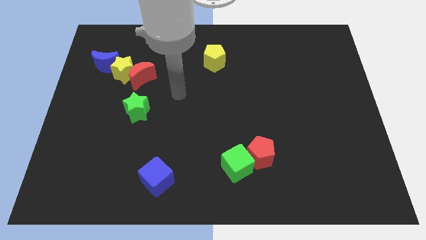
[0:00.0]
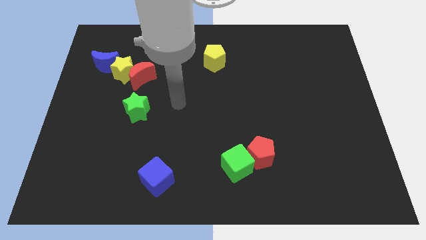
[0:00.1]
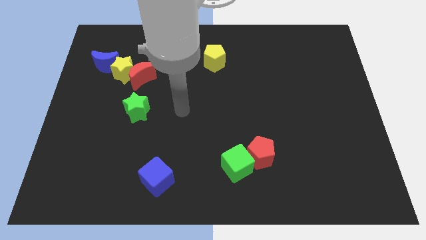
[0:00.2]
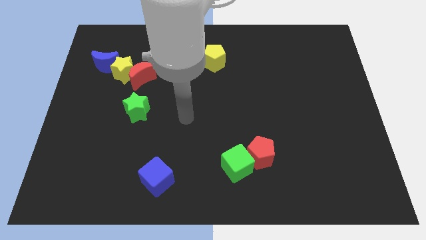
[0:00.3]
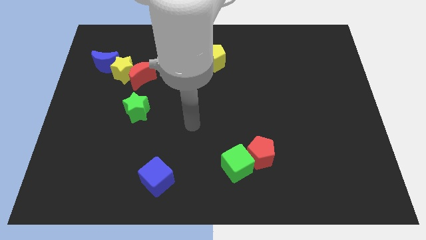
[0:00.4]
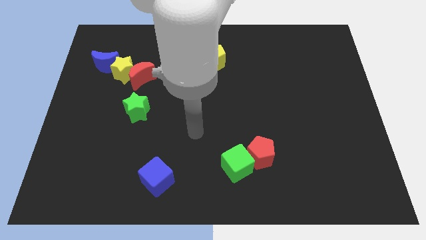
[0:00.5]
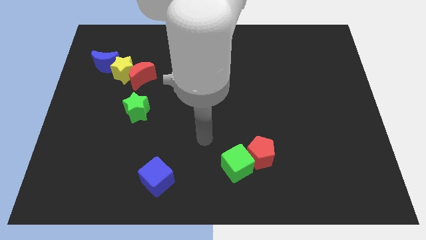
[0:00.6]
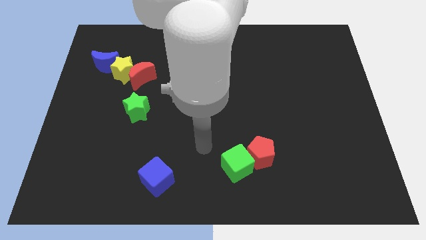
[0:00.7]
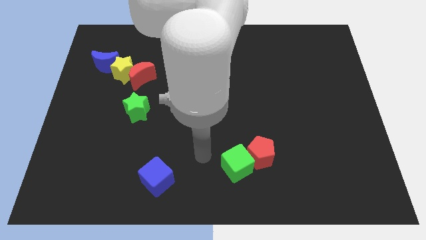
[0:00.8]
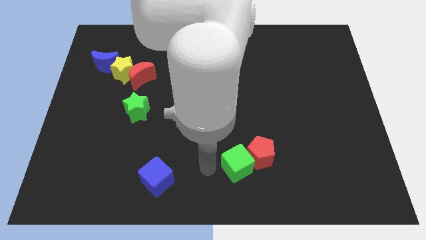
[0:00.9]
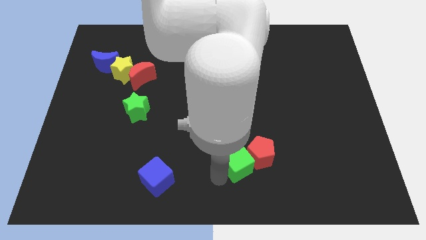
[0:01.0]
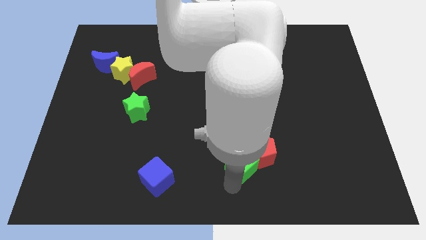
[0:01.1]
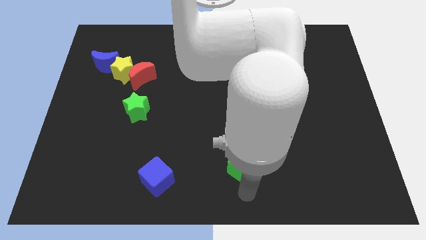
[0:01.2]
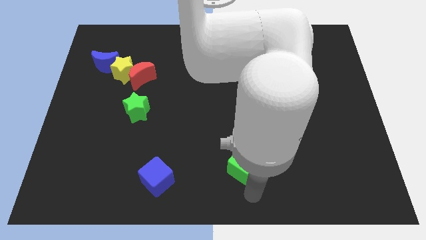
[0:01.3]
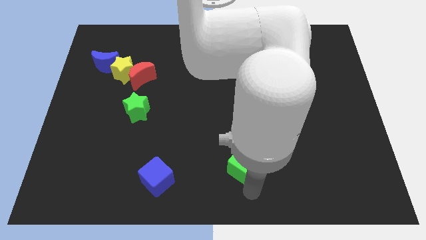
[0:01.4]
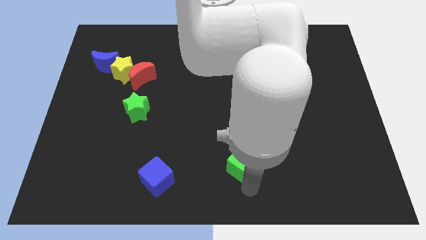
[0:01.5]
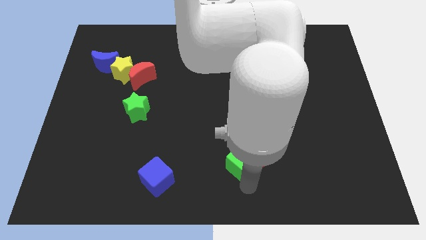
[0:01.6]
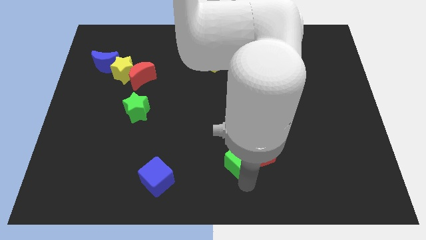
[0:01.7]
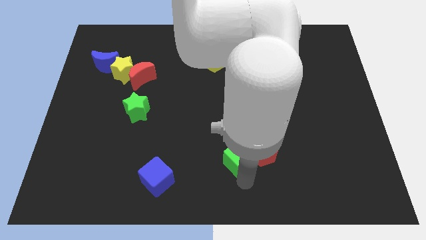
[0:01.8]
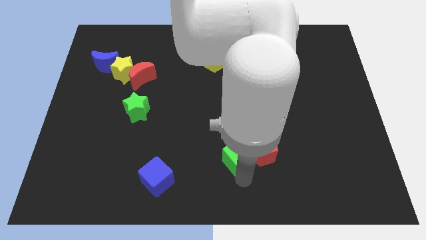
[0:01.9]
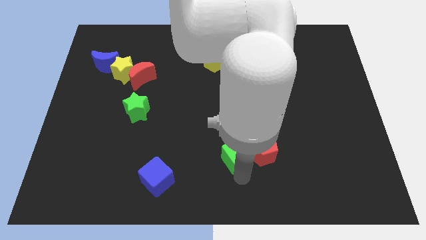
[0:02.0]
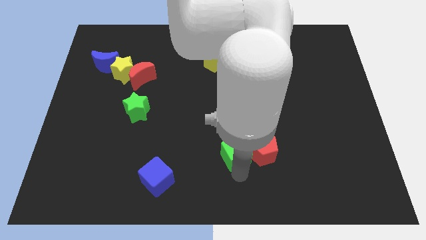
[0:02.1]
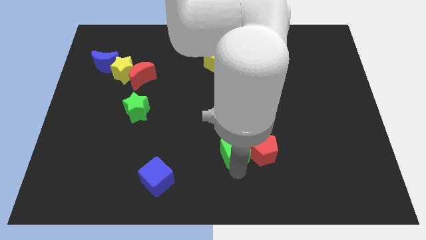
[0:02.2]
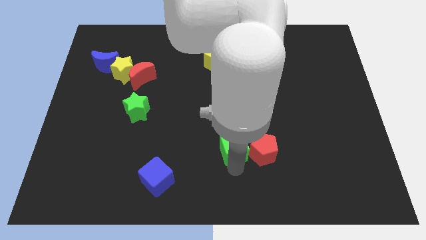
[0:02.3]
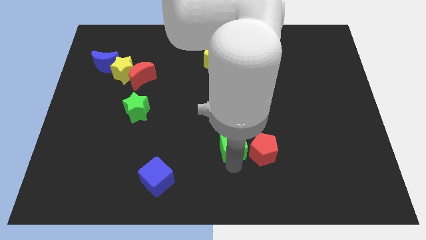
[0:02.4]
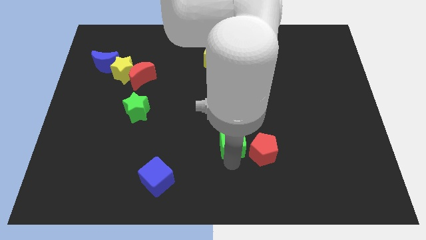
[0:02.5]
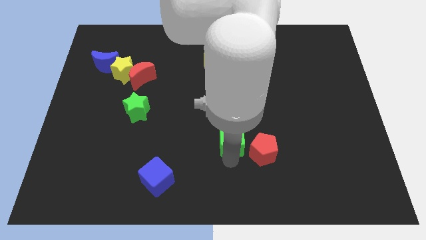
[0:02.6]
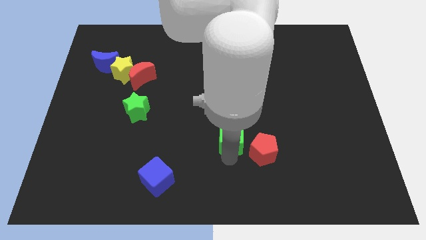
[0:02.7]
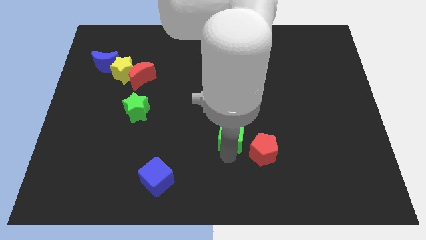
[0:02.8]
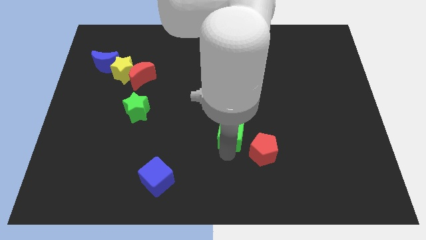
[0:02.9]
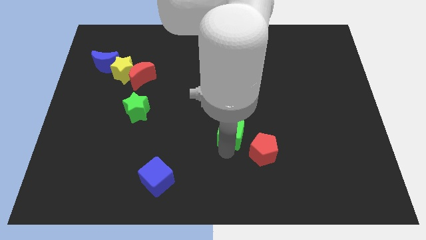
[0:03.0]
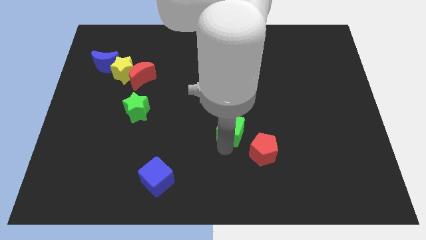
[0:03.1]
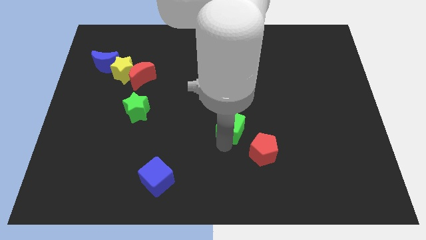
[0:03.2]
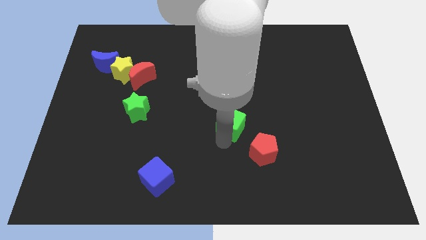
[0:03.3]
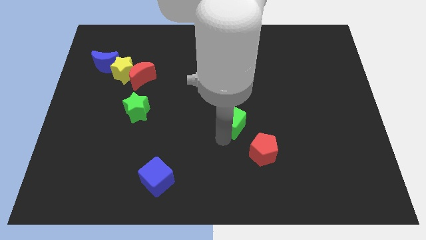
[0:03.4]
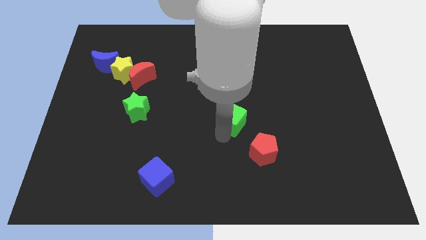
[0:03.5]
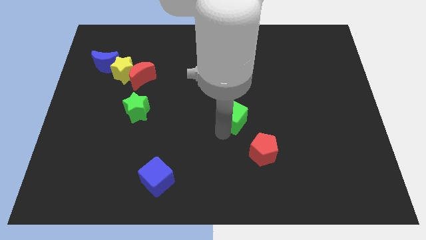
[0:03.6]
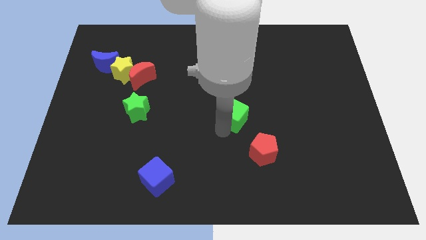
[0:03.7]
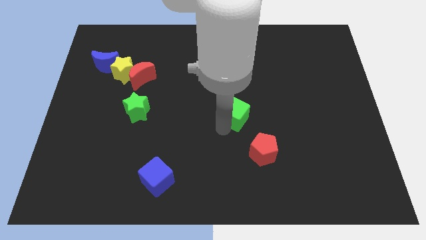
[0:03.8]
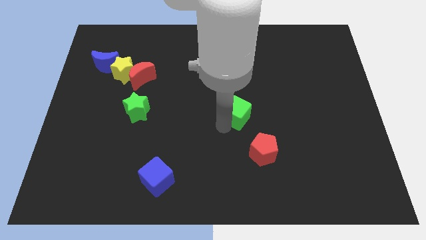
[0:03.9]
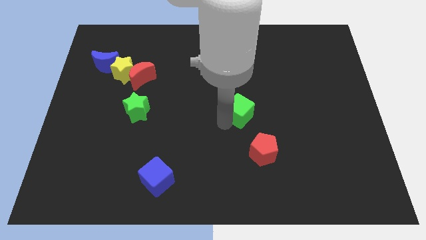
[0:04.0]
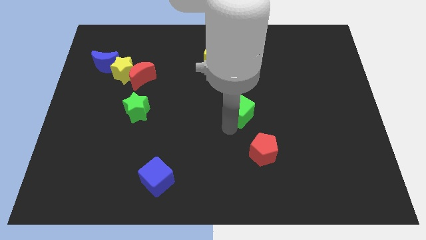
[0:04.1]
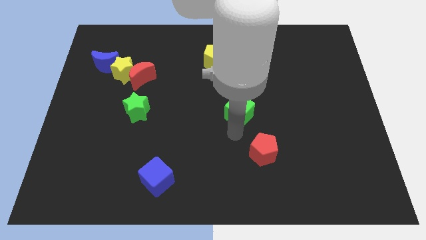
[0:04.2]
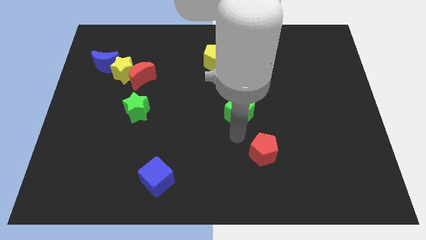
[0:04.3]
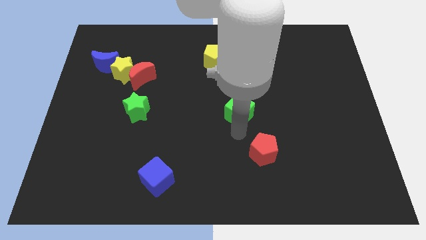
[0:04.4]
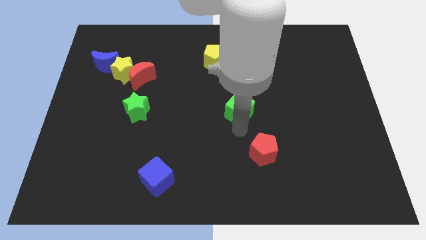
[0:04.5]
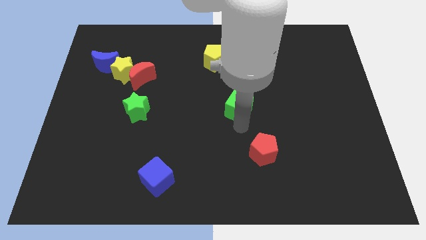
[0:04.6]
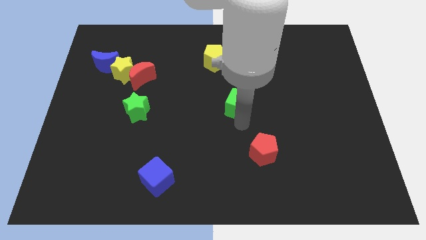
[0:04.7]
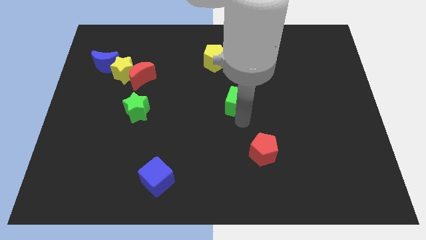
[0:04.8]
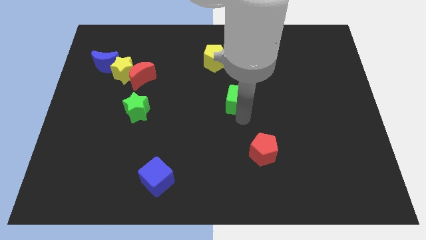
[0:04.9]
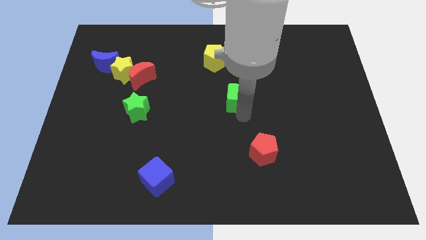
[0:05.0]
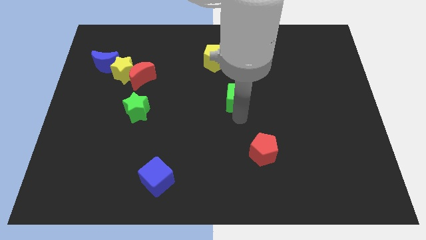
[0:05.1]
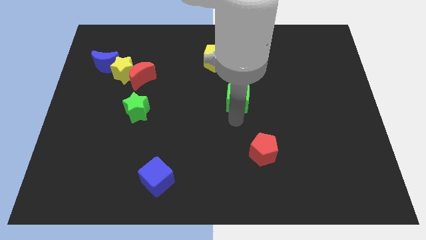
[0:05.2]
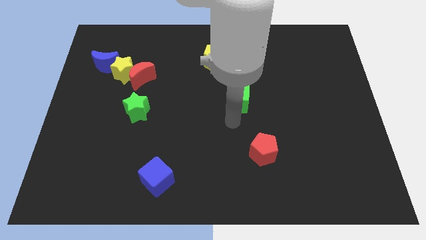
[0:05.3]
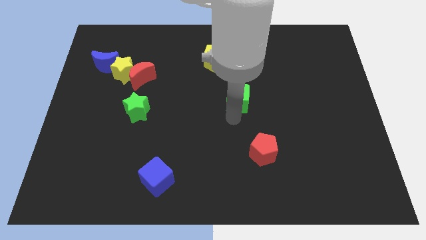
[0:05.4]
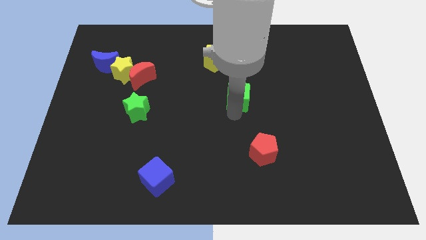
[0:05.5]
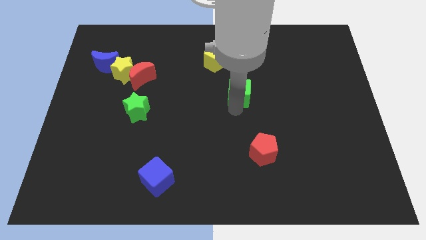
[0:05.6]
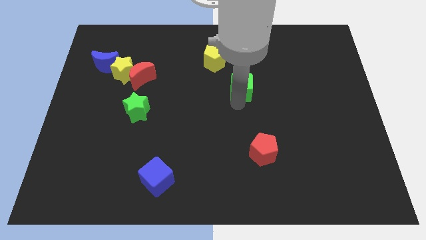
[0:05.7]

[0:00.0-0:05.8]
move the green cube to the bottom right of the yellow pentagon

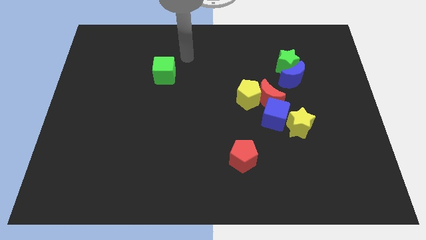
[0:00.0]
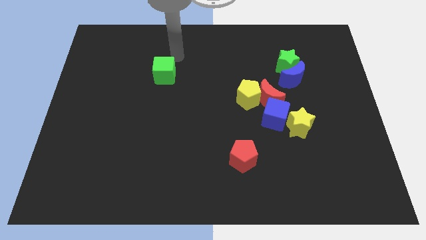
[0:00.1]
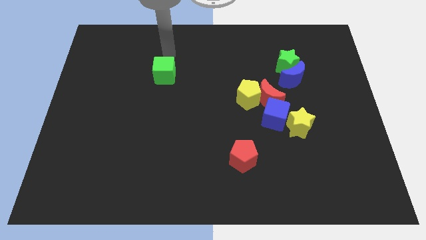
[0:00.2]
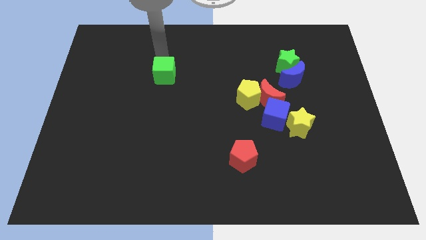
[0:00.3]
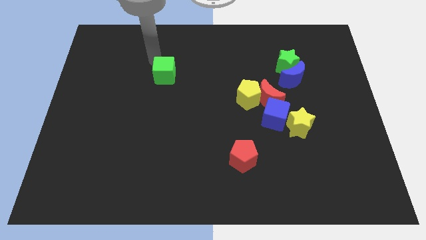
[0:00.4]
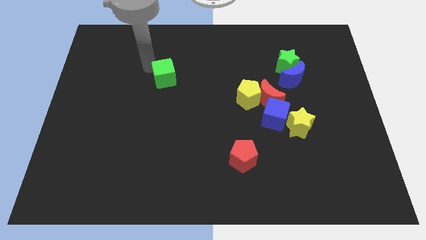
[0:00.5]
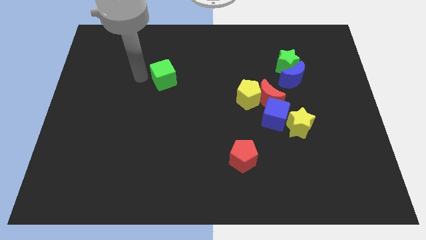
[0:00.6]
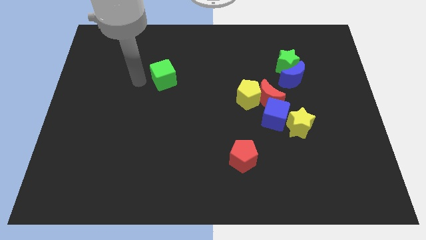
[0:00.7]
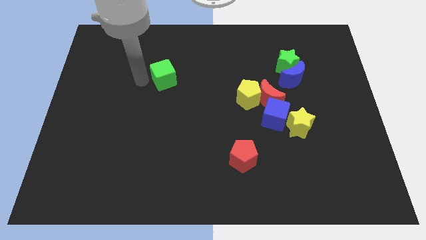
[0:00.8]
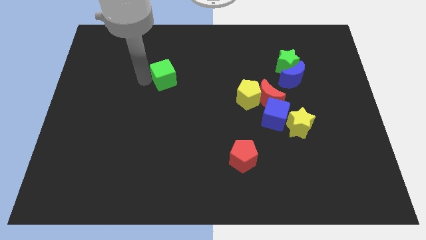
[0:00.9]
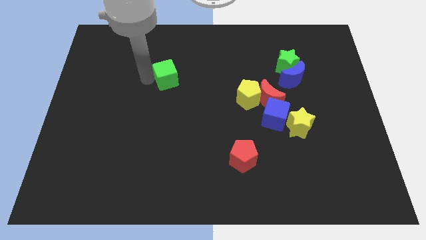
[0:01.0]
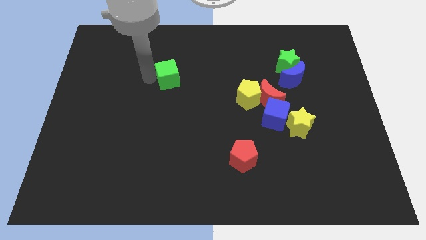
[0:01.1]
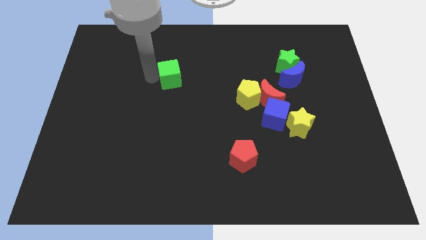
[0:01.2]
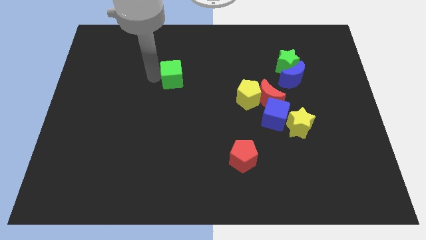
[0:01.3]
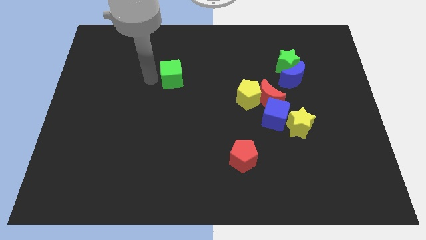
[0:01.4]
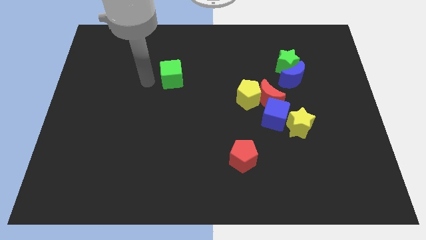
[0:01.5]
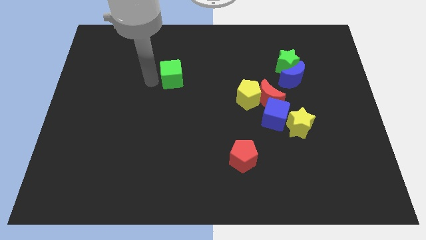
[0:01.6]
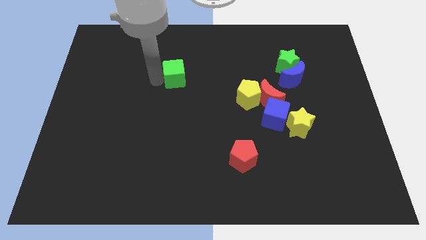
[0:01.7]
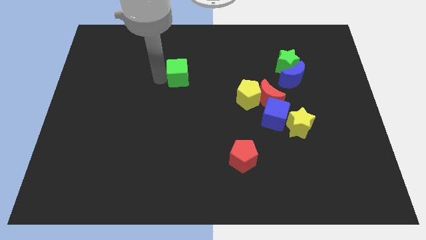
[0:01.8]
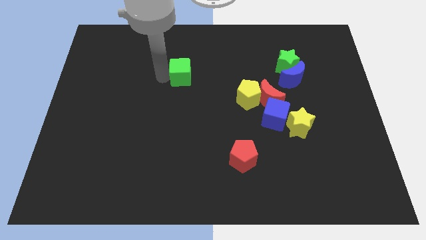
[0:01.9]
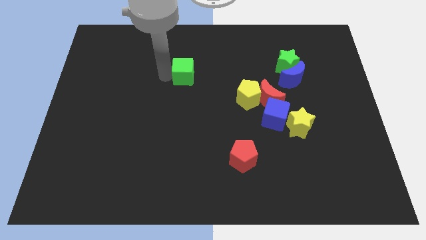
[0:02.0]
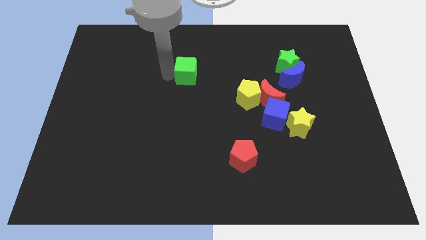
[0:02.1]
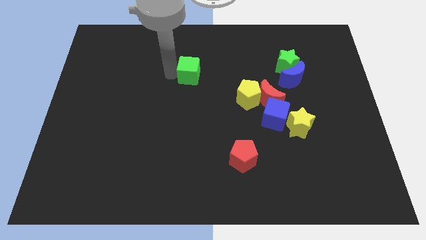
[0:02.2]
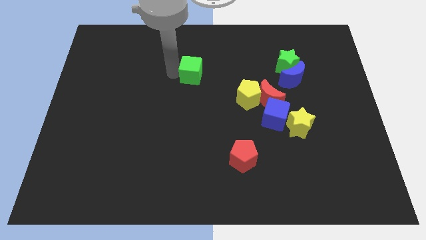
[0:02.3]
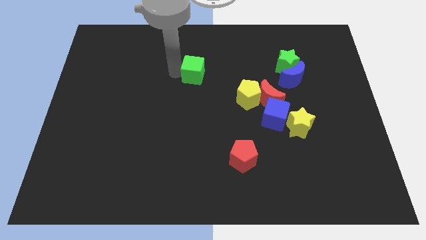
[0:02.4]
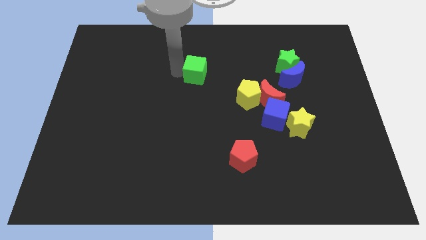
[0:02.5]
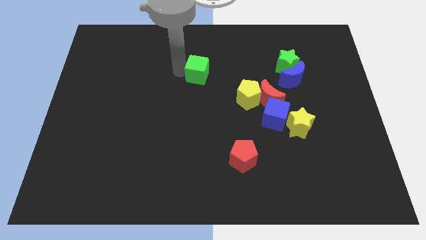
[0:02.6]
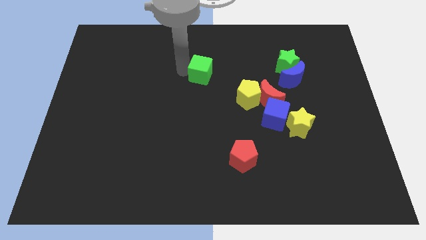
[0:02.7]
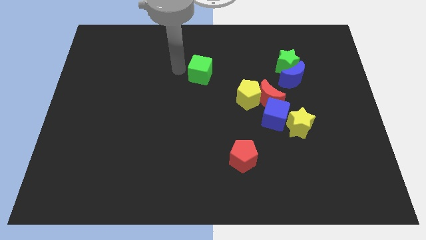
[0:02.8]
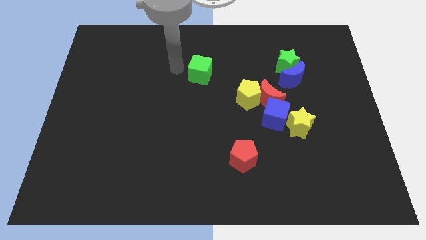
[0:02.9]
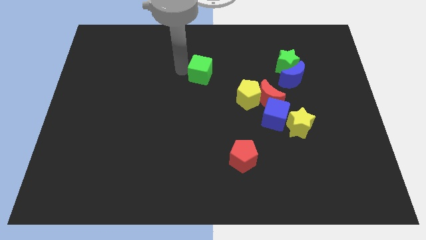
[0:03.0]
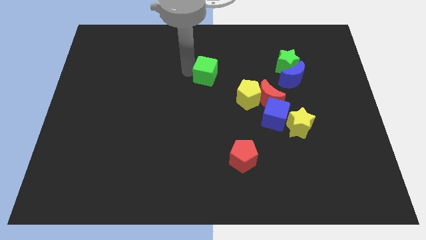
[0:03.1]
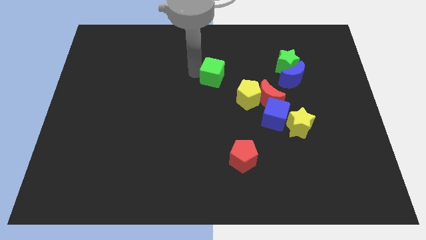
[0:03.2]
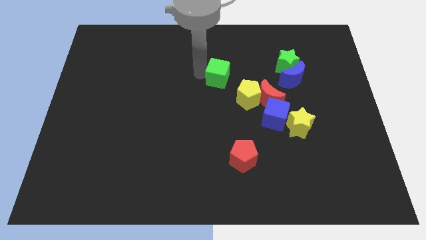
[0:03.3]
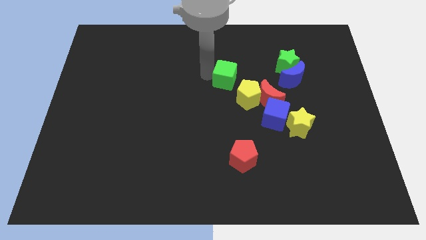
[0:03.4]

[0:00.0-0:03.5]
slide the green cube to the top left of the red moon
